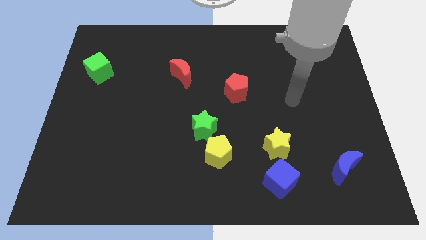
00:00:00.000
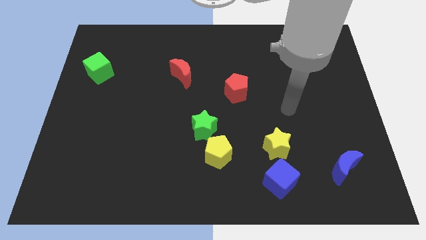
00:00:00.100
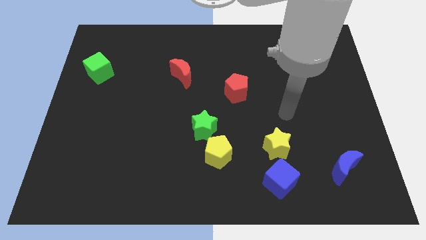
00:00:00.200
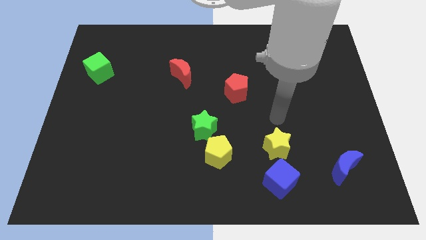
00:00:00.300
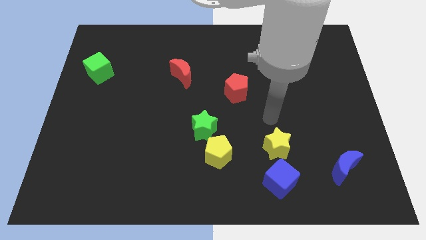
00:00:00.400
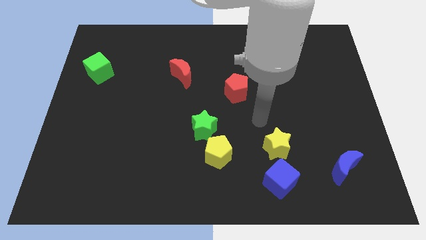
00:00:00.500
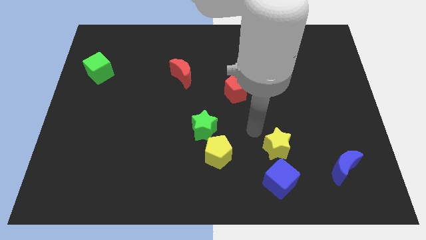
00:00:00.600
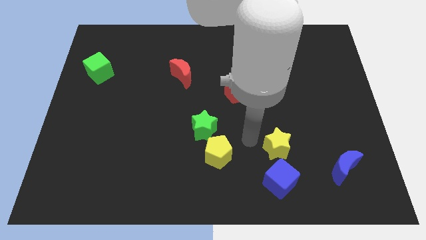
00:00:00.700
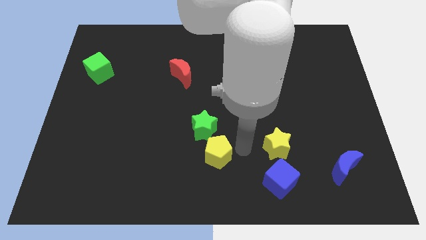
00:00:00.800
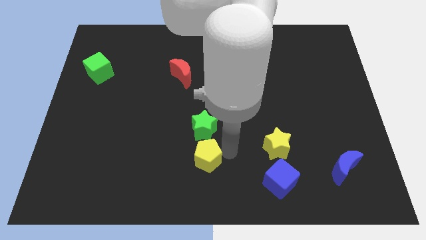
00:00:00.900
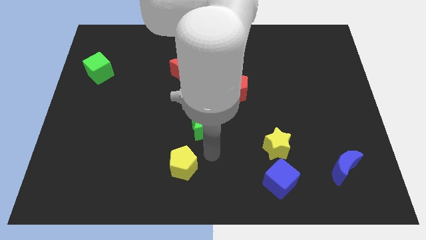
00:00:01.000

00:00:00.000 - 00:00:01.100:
pull the green star apart from the yellow pentagon

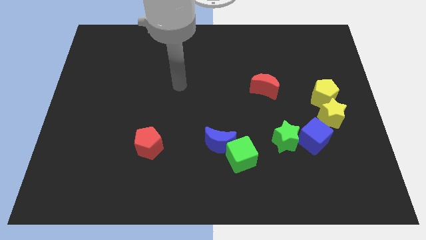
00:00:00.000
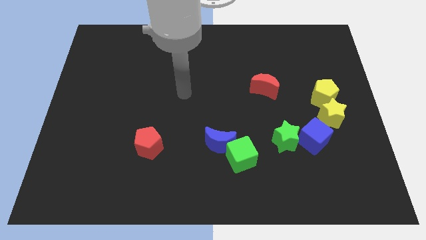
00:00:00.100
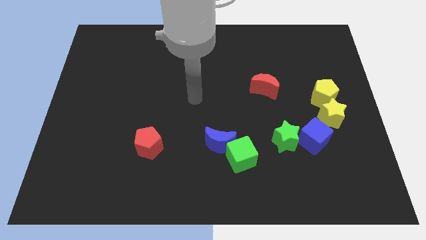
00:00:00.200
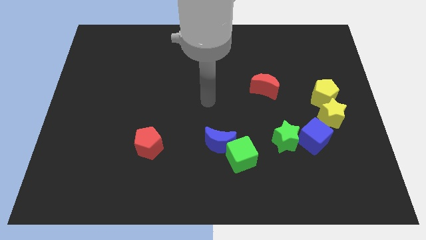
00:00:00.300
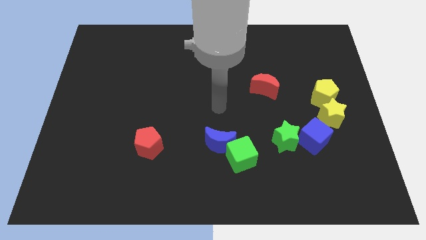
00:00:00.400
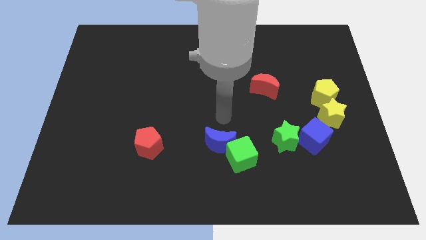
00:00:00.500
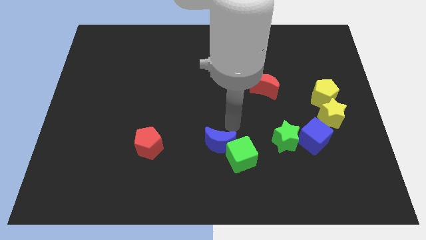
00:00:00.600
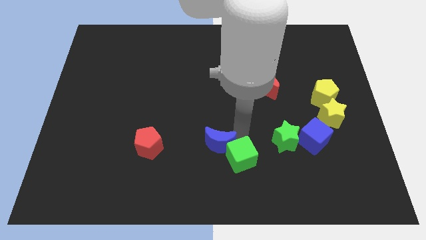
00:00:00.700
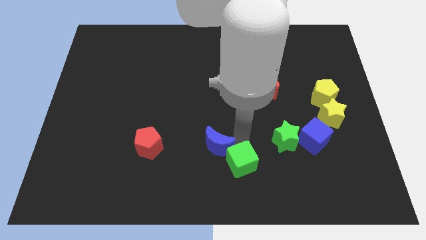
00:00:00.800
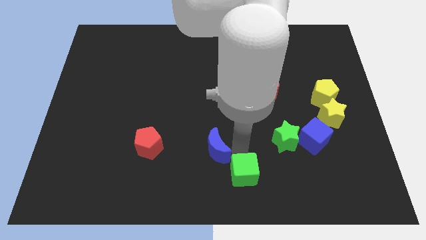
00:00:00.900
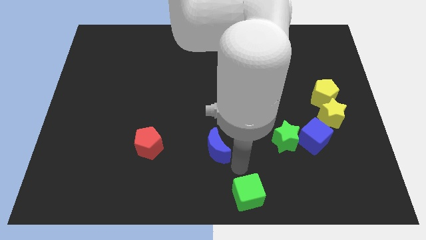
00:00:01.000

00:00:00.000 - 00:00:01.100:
move the blue moon away from the green cube

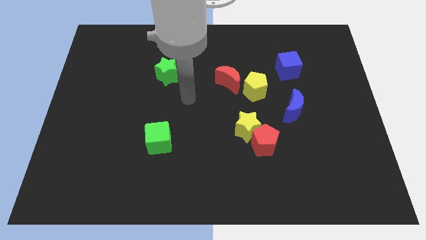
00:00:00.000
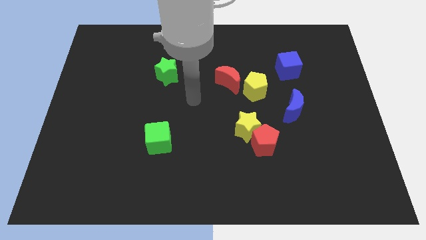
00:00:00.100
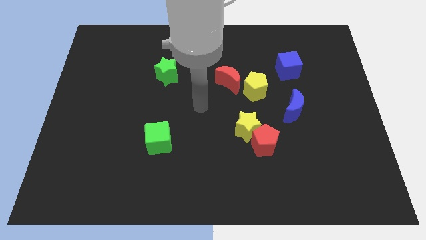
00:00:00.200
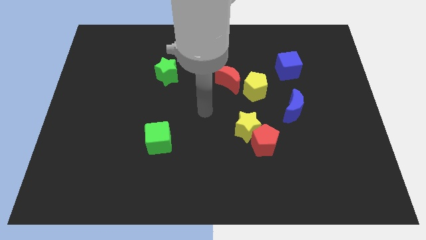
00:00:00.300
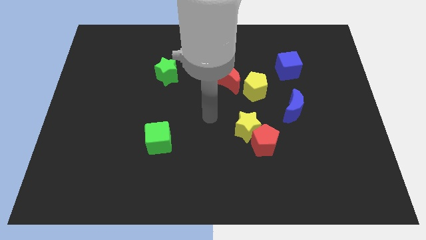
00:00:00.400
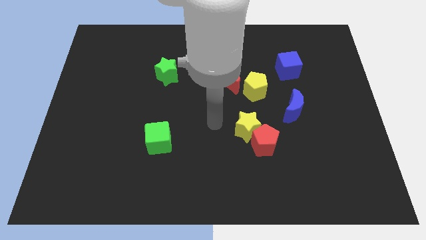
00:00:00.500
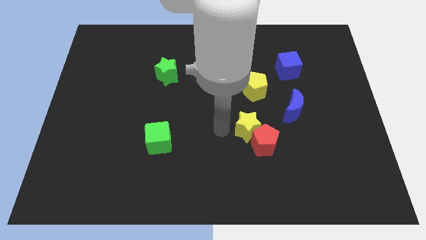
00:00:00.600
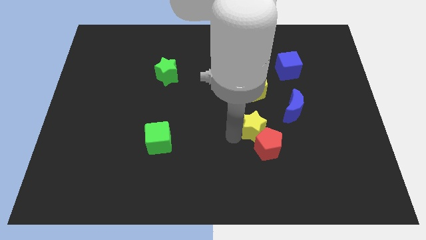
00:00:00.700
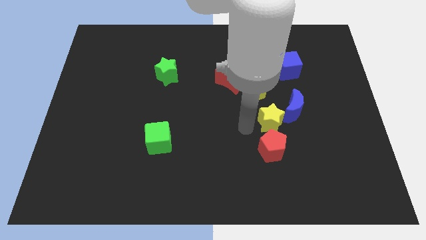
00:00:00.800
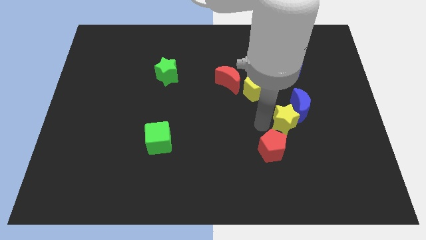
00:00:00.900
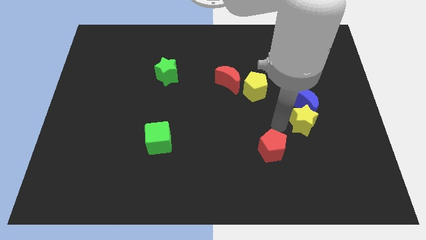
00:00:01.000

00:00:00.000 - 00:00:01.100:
pull the red pentagon apart from the yellow star

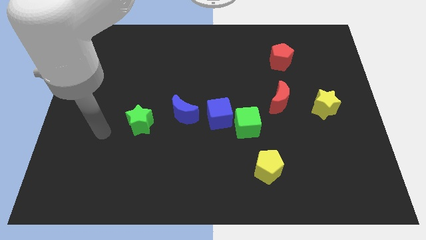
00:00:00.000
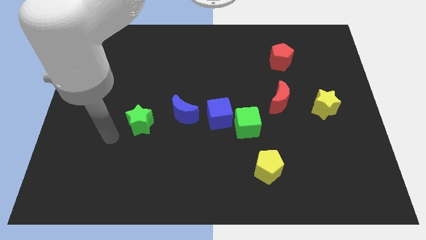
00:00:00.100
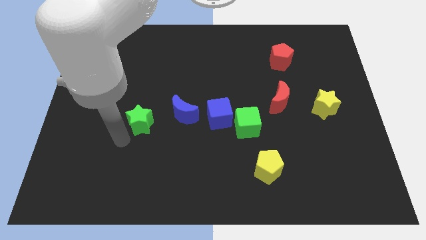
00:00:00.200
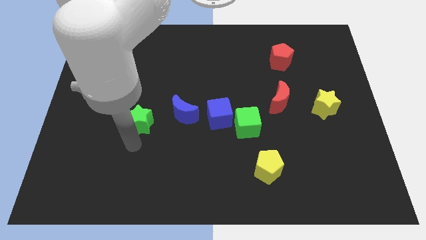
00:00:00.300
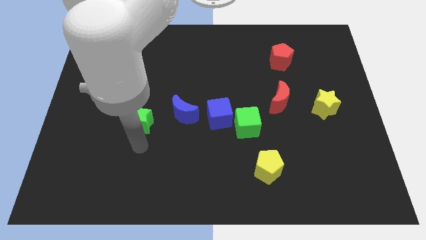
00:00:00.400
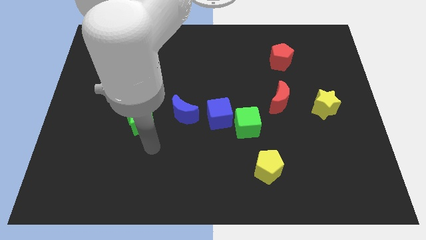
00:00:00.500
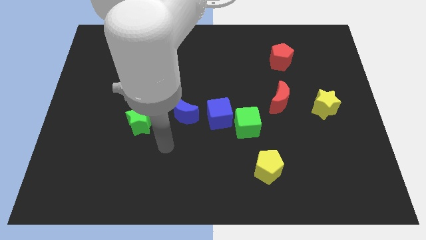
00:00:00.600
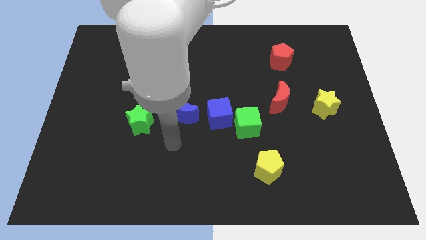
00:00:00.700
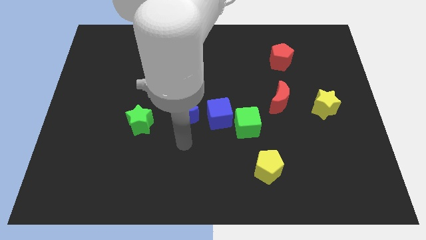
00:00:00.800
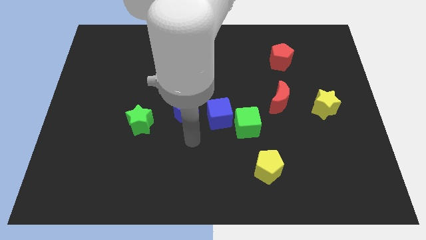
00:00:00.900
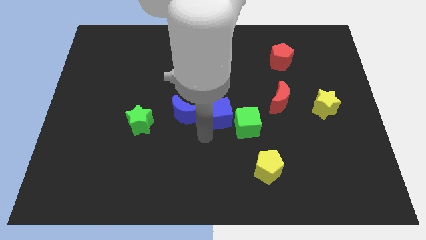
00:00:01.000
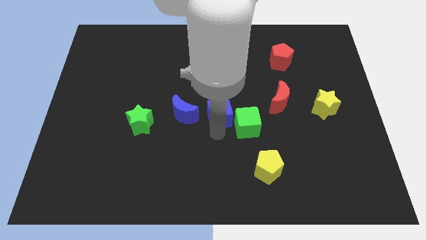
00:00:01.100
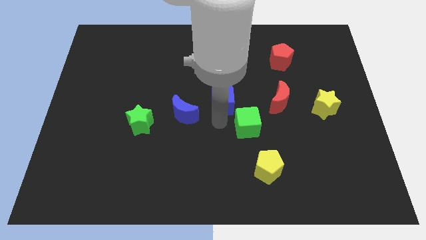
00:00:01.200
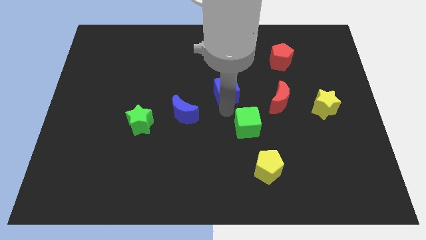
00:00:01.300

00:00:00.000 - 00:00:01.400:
separate the green cube from the blue cube

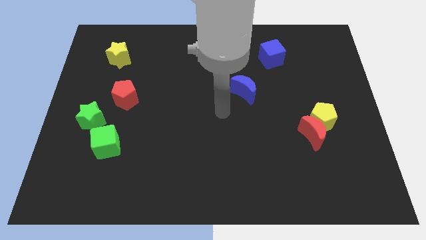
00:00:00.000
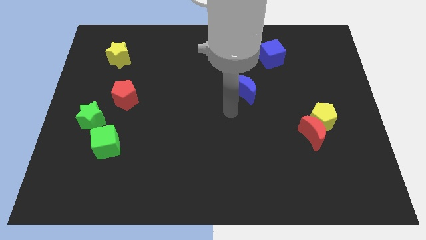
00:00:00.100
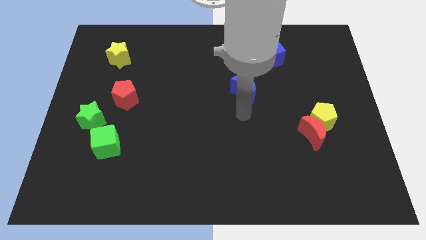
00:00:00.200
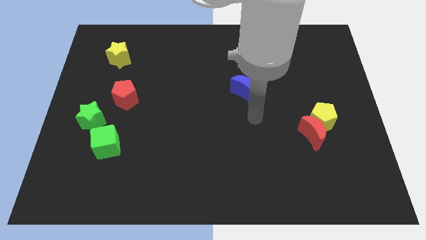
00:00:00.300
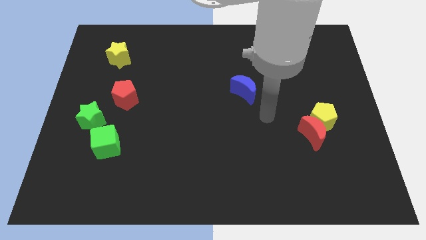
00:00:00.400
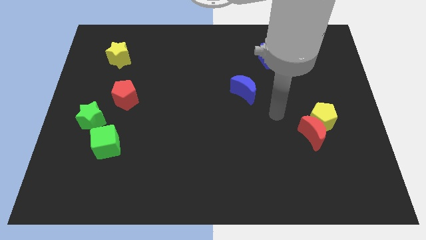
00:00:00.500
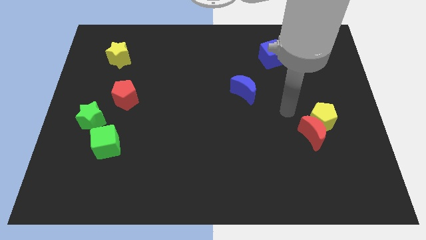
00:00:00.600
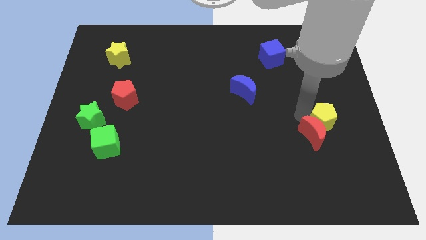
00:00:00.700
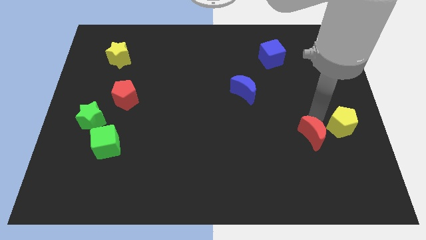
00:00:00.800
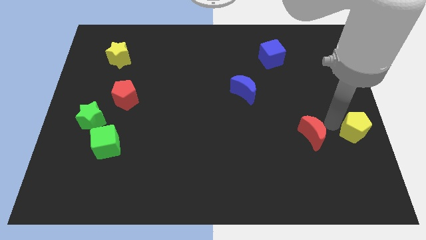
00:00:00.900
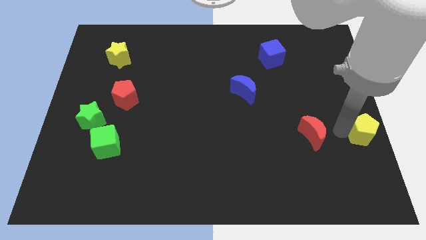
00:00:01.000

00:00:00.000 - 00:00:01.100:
pull the red moon apart from the yellow pentagon

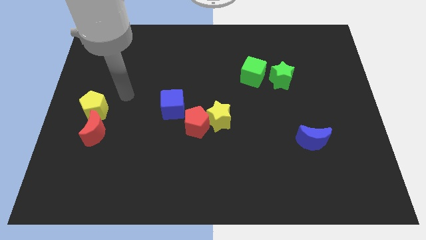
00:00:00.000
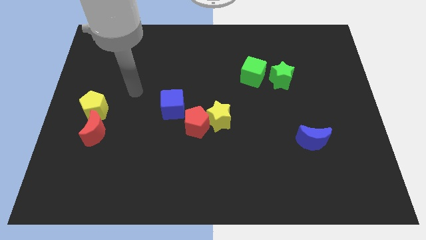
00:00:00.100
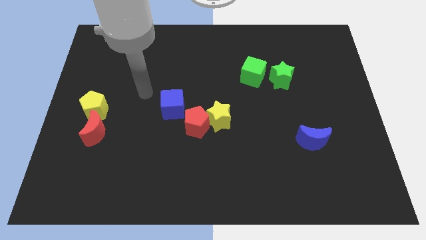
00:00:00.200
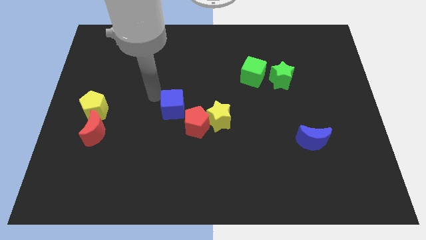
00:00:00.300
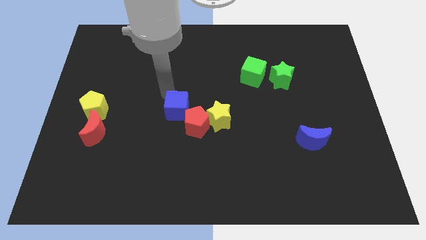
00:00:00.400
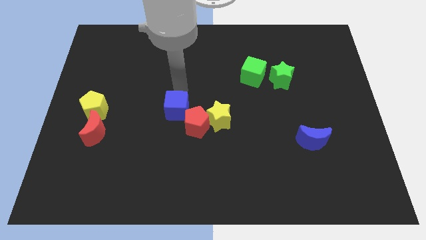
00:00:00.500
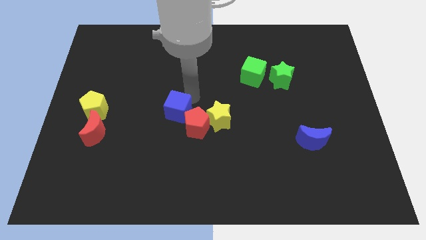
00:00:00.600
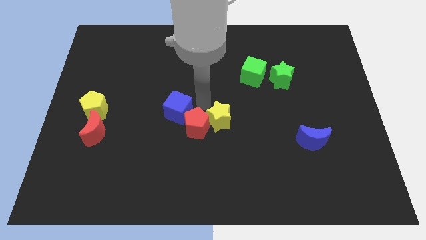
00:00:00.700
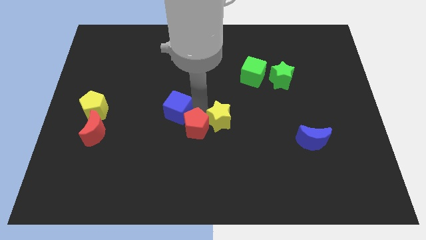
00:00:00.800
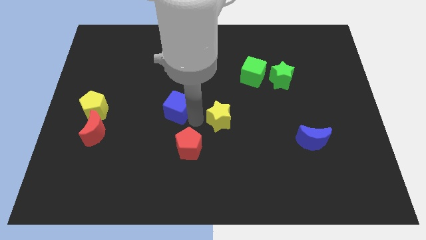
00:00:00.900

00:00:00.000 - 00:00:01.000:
separate the yellow star from the red pentagon

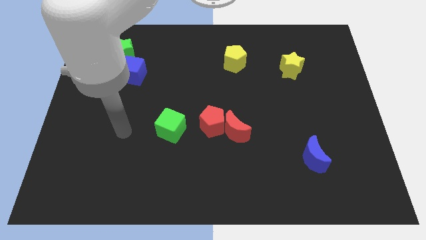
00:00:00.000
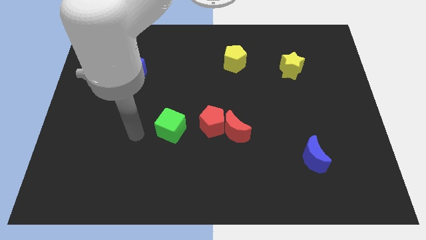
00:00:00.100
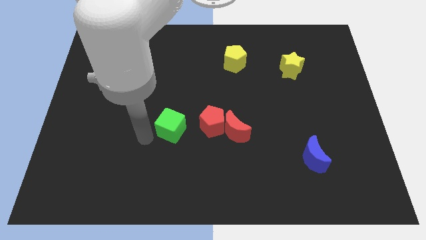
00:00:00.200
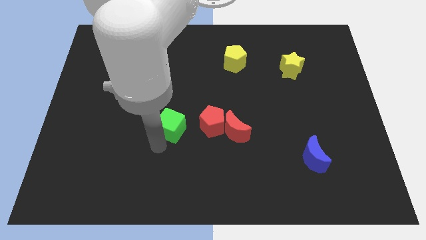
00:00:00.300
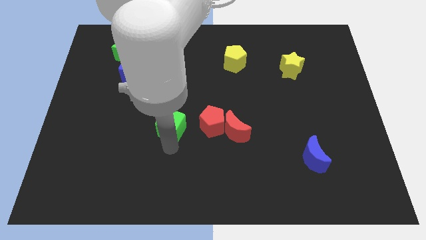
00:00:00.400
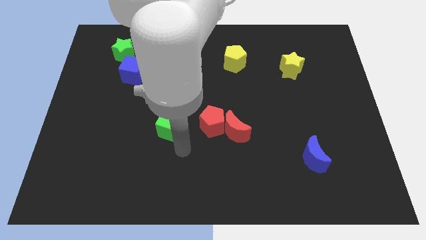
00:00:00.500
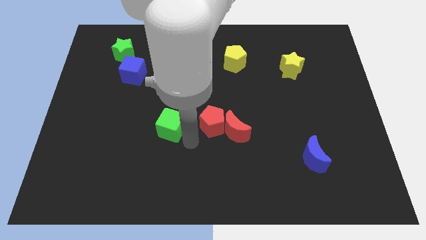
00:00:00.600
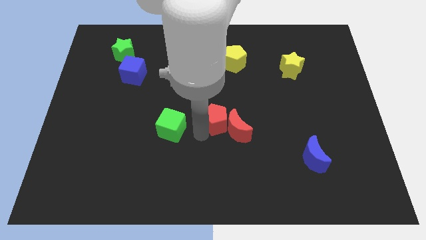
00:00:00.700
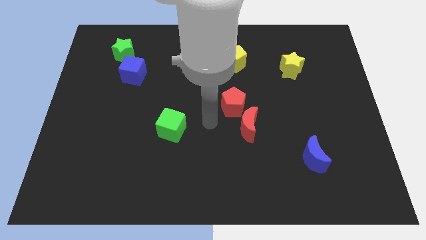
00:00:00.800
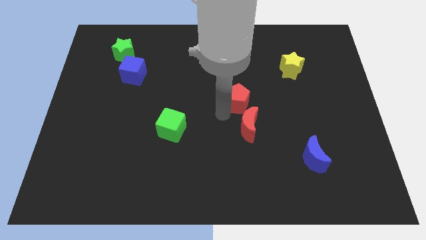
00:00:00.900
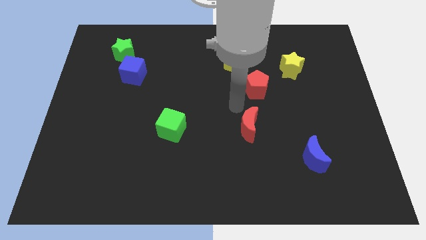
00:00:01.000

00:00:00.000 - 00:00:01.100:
separate the red moon from the red pentagon

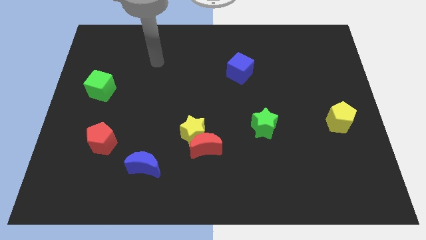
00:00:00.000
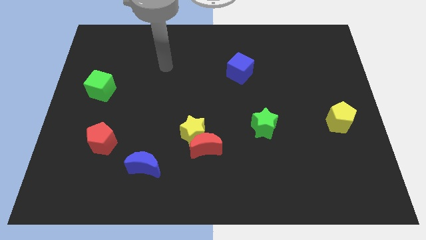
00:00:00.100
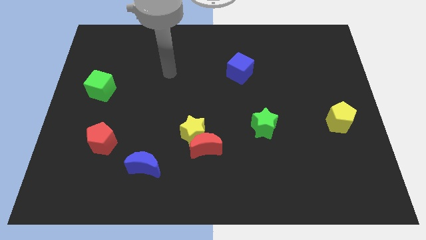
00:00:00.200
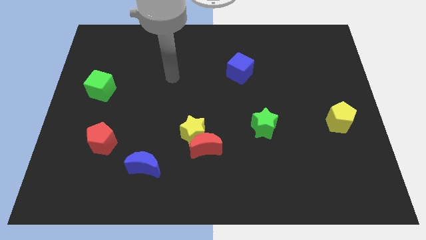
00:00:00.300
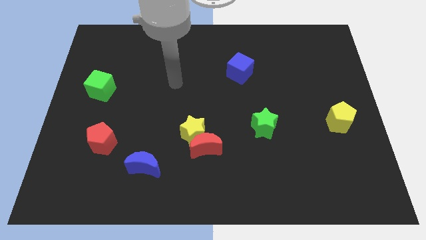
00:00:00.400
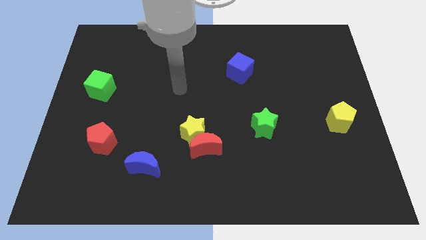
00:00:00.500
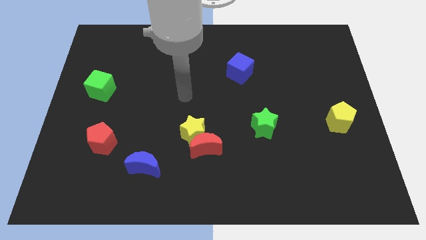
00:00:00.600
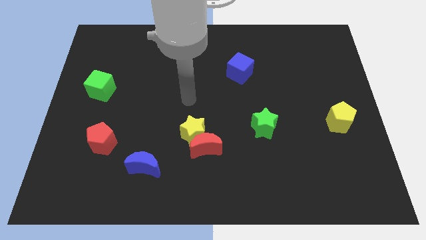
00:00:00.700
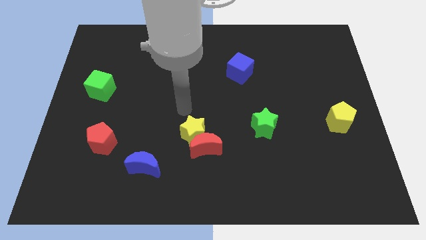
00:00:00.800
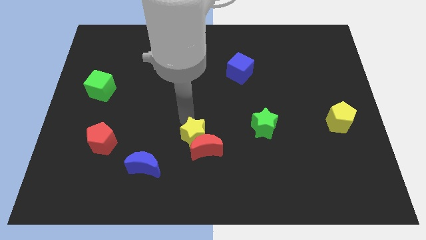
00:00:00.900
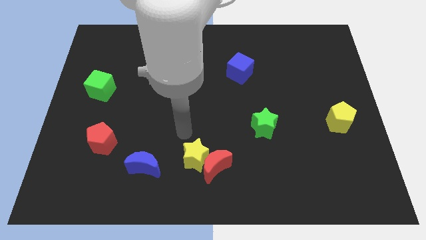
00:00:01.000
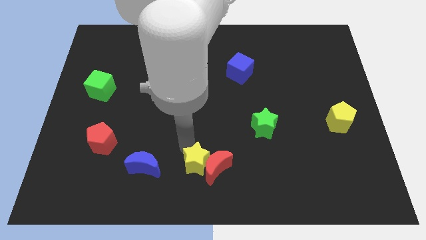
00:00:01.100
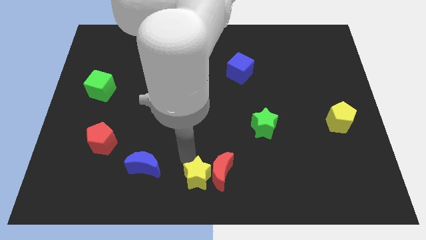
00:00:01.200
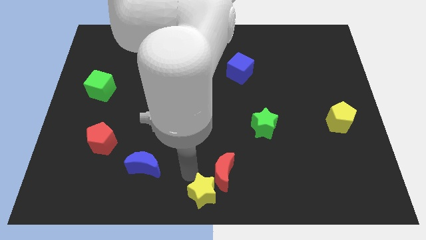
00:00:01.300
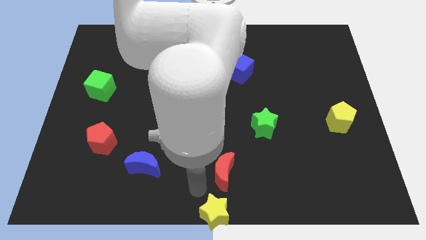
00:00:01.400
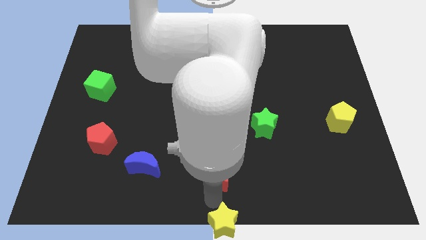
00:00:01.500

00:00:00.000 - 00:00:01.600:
pull the red moon apart from the yellow star

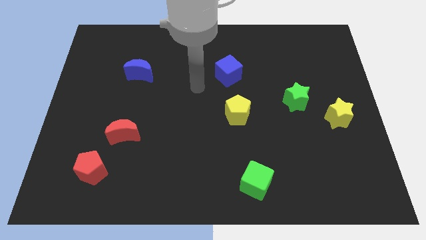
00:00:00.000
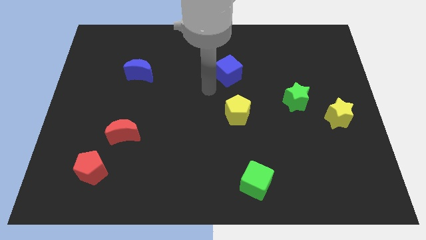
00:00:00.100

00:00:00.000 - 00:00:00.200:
separate the green star from the yellow star
